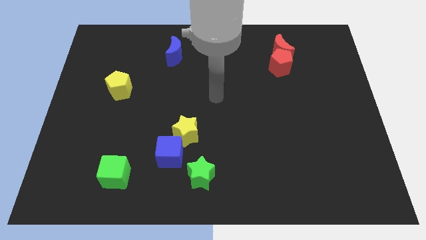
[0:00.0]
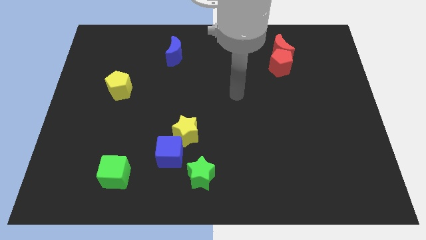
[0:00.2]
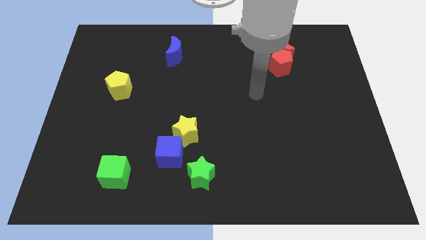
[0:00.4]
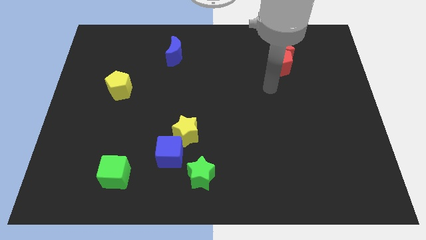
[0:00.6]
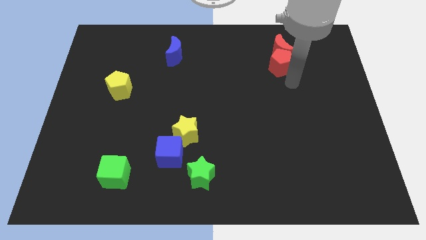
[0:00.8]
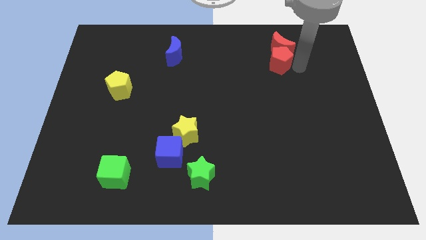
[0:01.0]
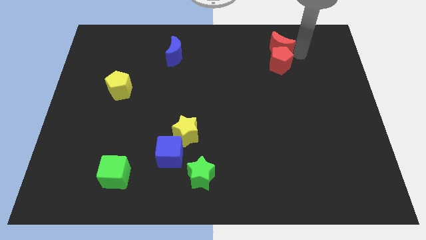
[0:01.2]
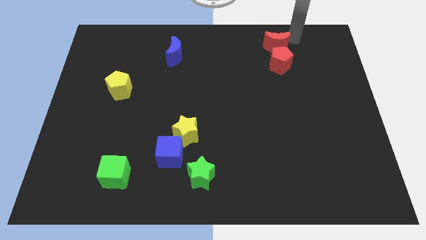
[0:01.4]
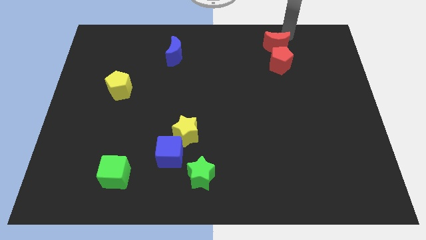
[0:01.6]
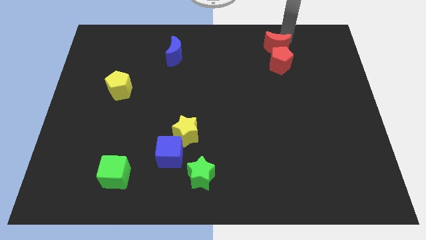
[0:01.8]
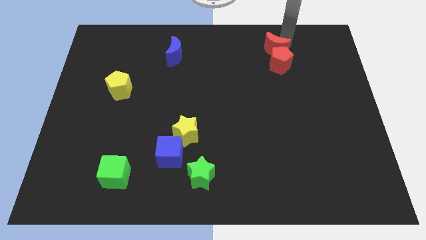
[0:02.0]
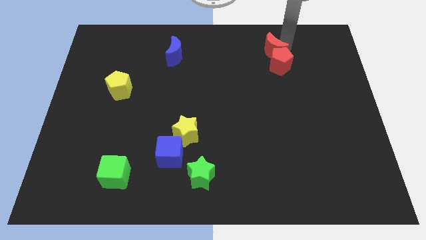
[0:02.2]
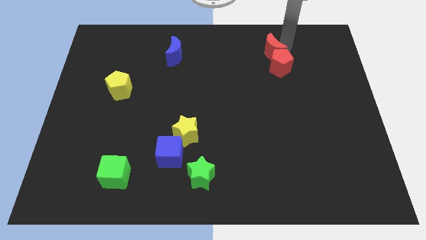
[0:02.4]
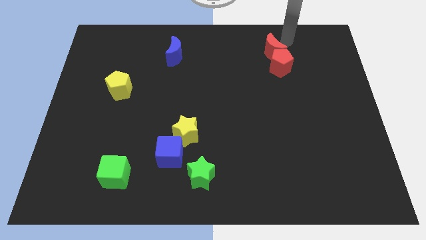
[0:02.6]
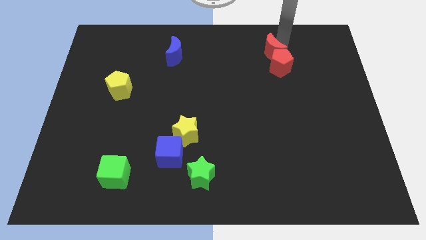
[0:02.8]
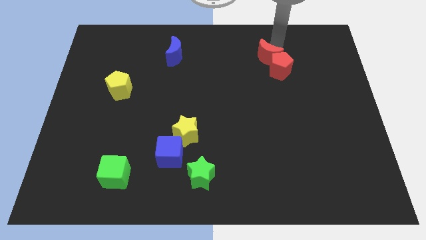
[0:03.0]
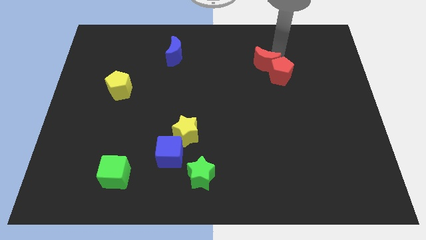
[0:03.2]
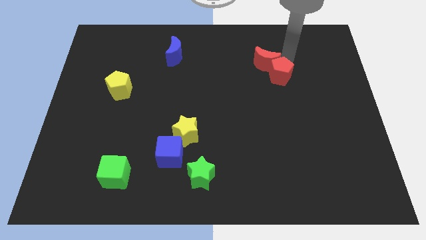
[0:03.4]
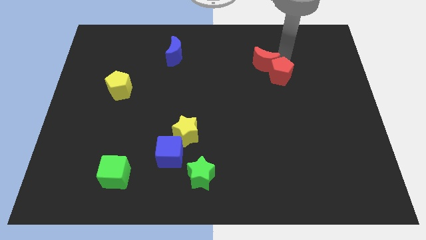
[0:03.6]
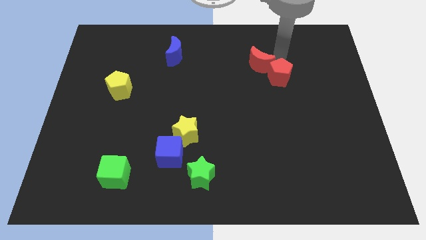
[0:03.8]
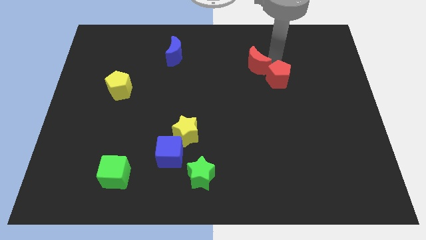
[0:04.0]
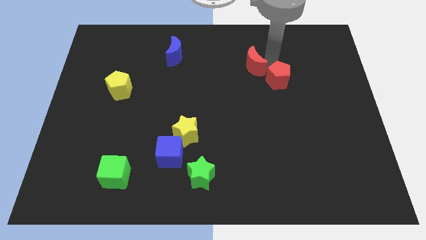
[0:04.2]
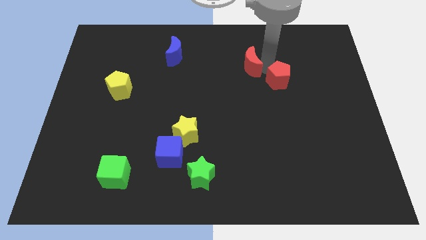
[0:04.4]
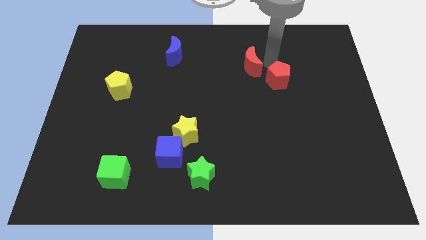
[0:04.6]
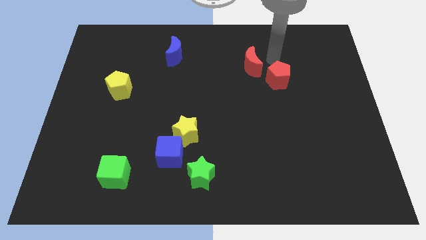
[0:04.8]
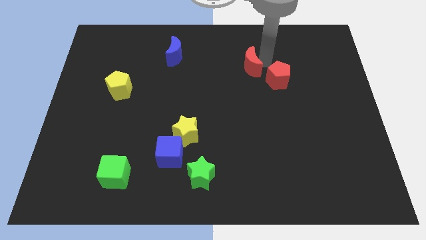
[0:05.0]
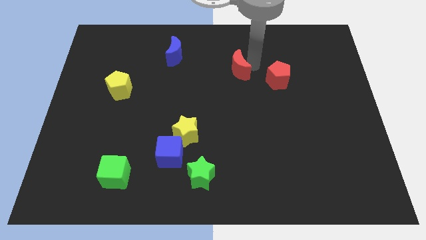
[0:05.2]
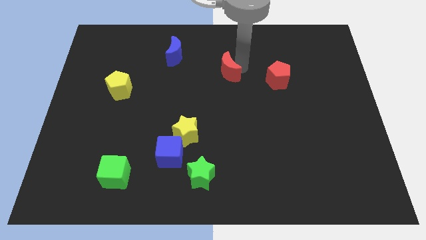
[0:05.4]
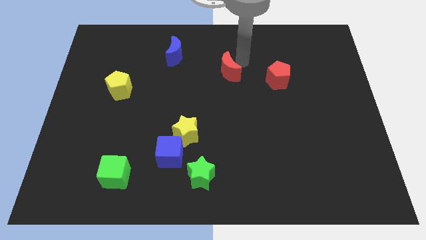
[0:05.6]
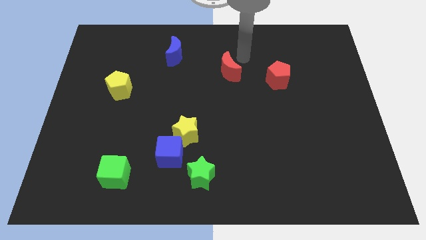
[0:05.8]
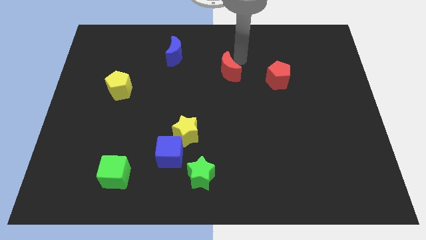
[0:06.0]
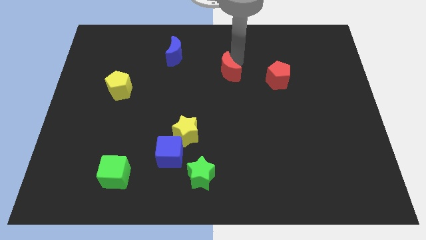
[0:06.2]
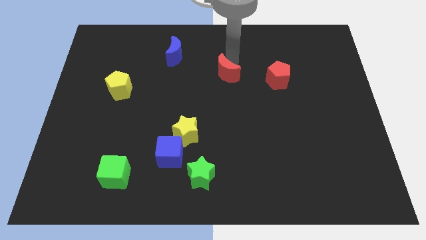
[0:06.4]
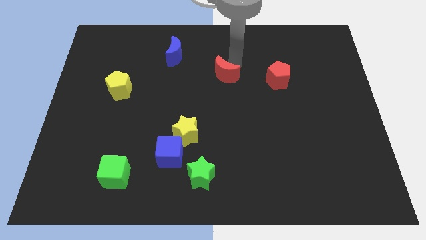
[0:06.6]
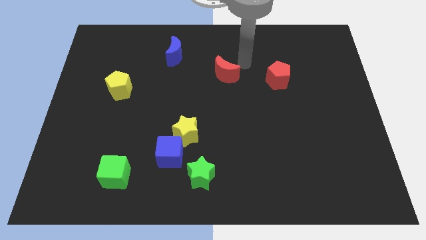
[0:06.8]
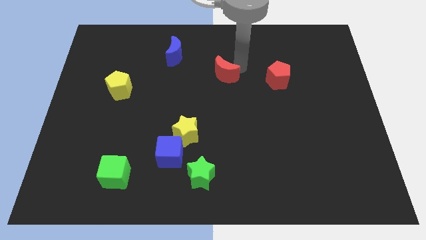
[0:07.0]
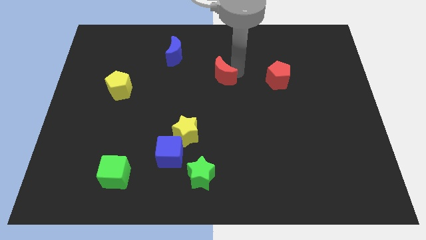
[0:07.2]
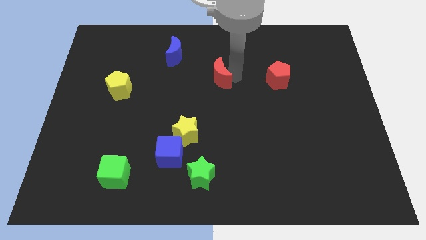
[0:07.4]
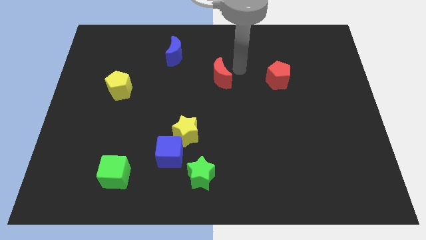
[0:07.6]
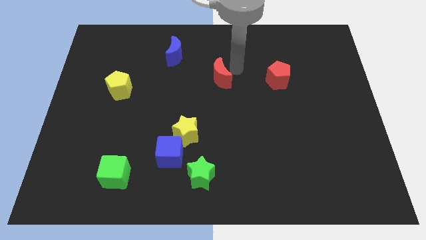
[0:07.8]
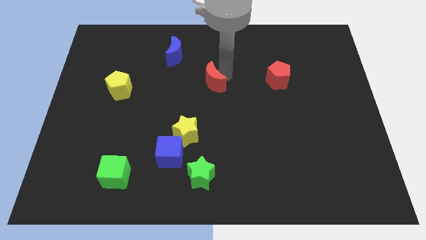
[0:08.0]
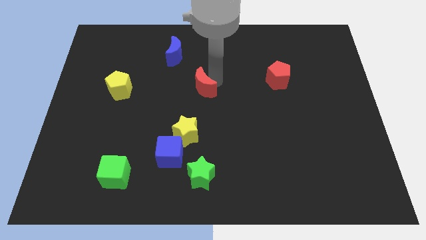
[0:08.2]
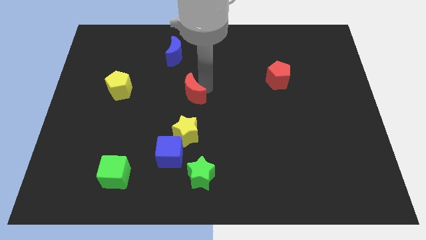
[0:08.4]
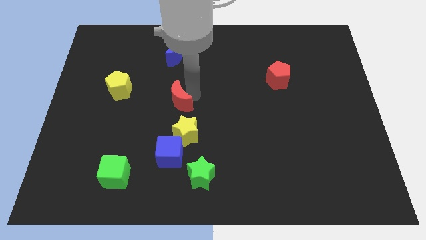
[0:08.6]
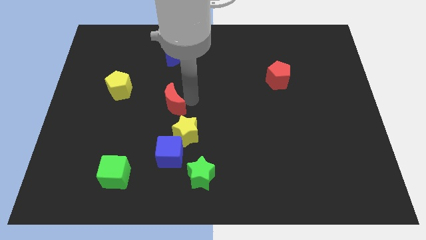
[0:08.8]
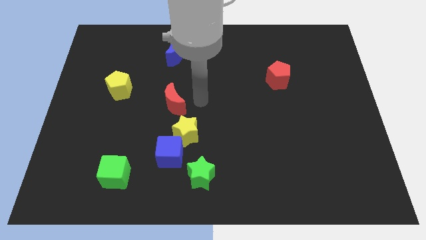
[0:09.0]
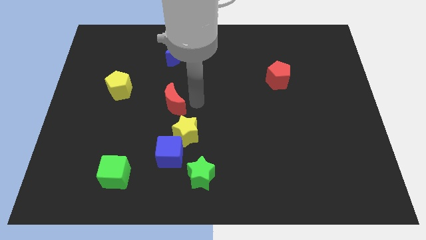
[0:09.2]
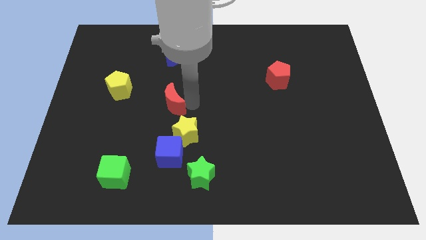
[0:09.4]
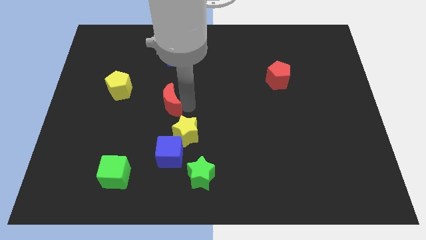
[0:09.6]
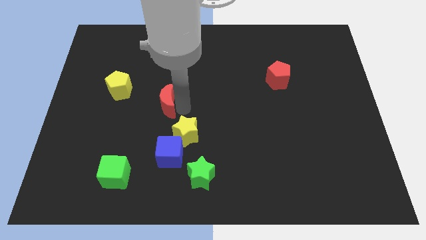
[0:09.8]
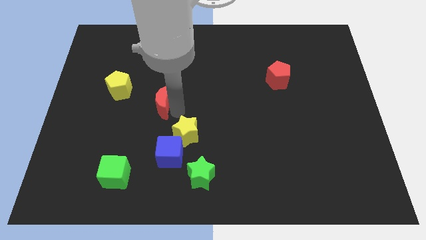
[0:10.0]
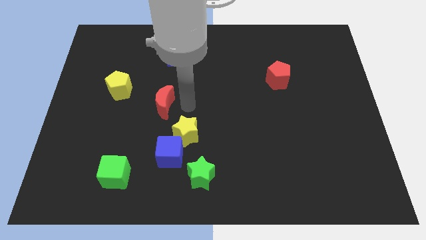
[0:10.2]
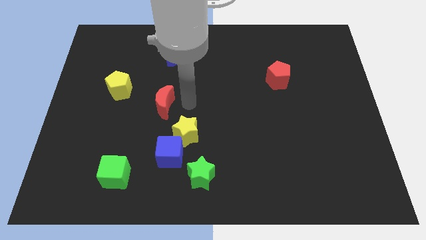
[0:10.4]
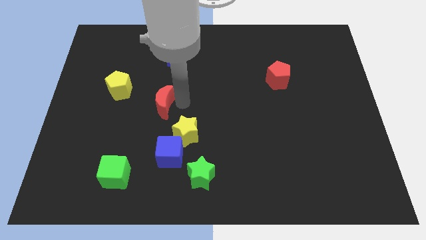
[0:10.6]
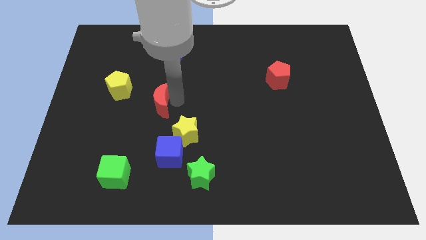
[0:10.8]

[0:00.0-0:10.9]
move the red moon diagonally down and to the right of the yellow pentagon
